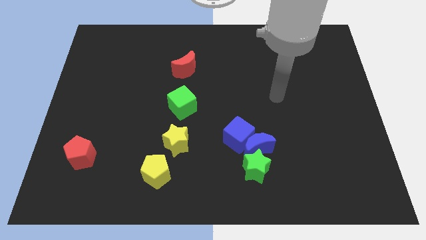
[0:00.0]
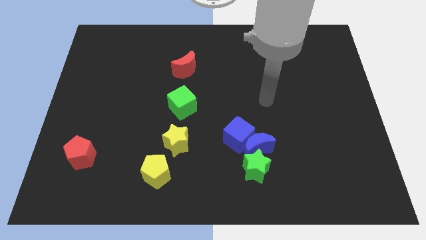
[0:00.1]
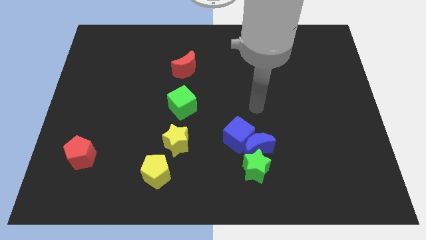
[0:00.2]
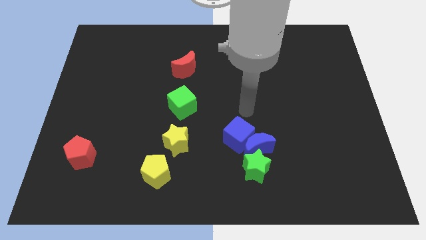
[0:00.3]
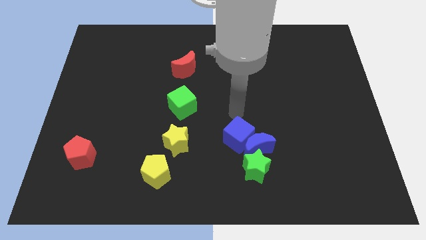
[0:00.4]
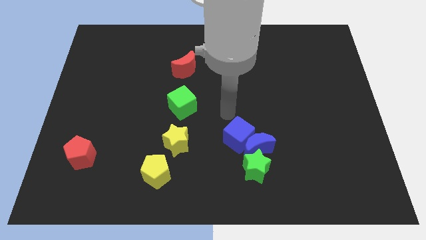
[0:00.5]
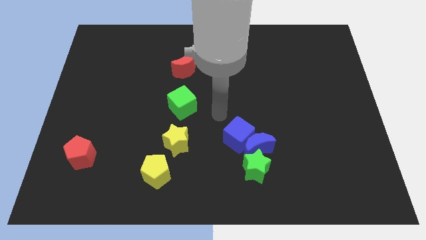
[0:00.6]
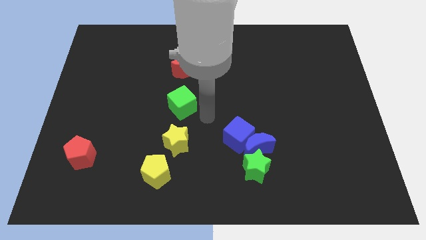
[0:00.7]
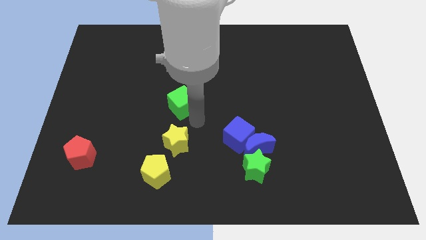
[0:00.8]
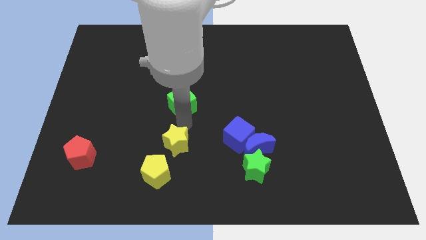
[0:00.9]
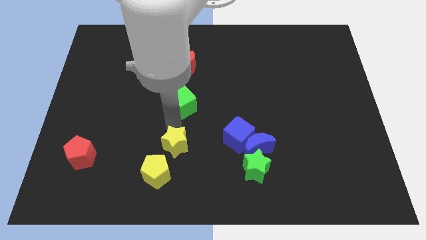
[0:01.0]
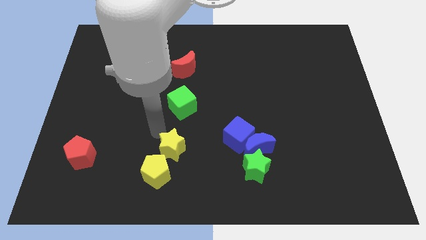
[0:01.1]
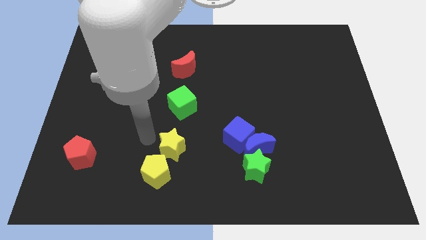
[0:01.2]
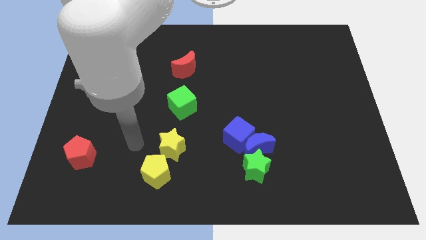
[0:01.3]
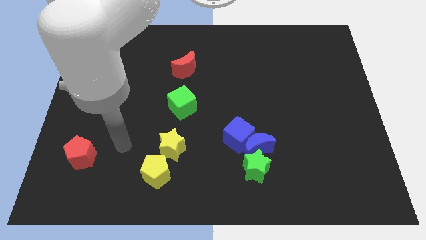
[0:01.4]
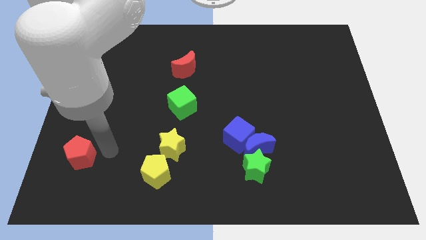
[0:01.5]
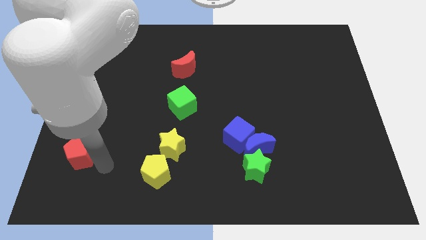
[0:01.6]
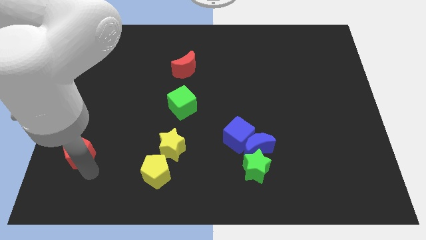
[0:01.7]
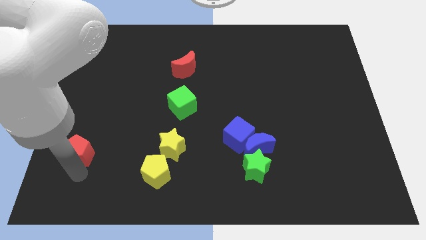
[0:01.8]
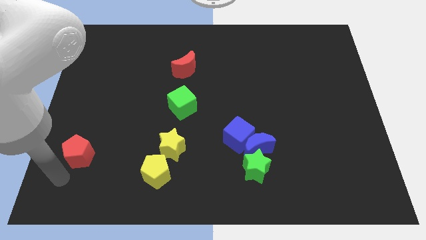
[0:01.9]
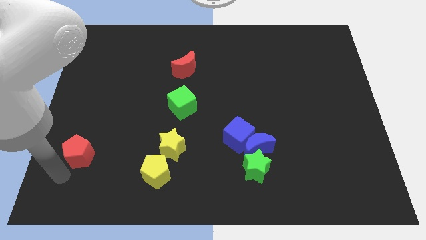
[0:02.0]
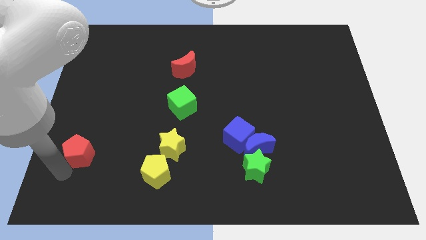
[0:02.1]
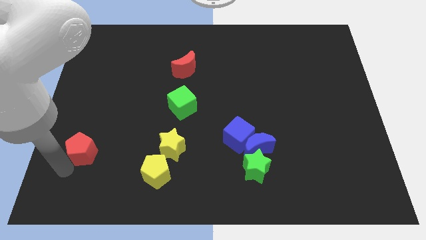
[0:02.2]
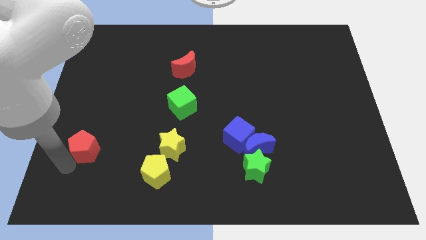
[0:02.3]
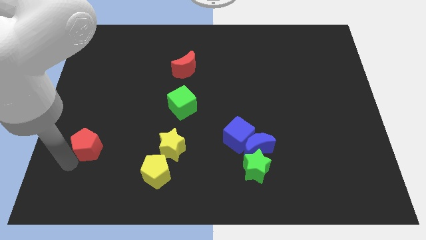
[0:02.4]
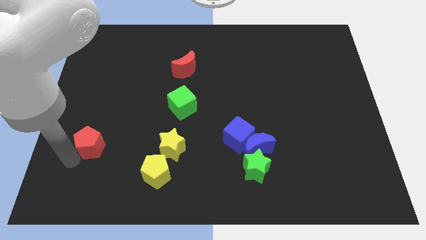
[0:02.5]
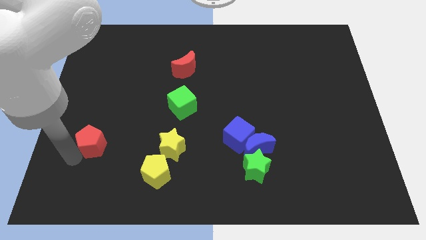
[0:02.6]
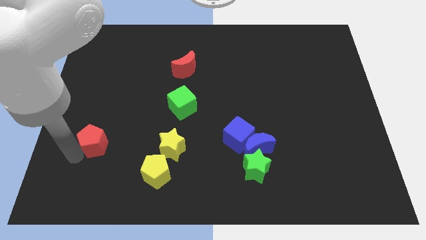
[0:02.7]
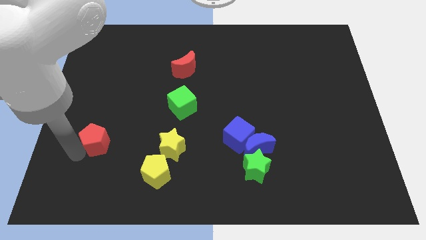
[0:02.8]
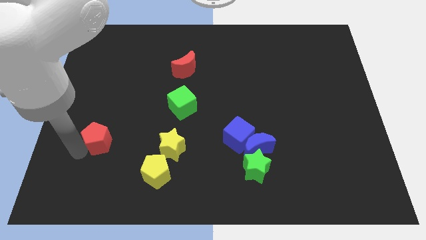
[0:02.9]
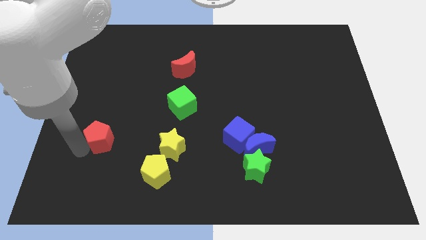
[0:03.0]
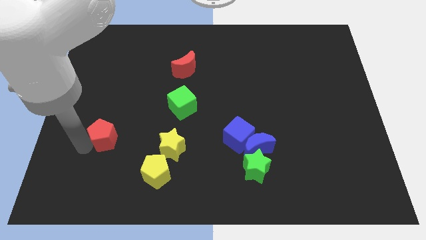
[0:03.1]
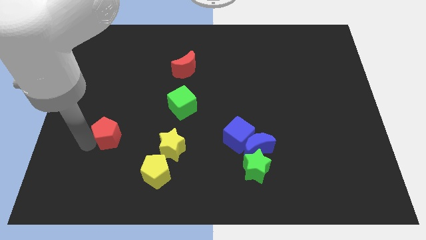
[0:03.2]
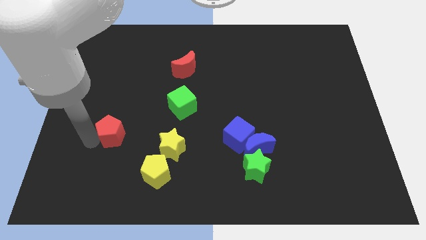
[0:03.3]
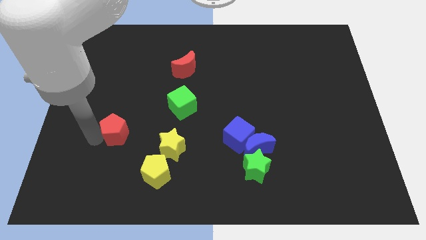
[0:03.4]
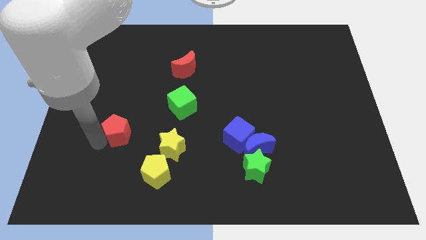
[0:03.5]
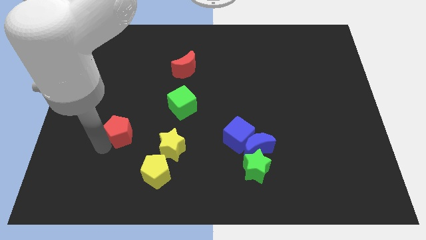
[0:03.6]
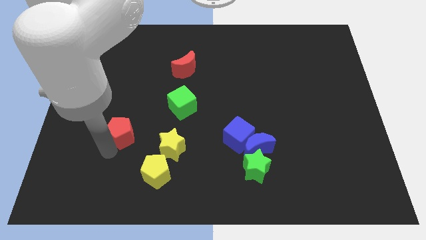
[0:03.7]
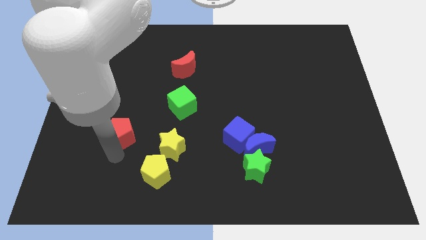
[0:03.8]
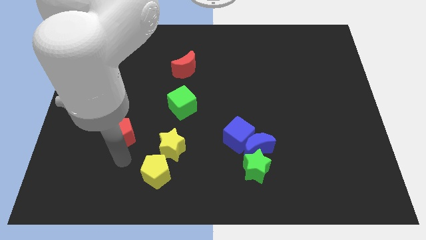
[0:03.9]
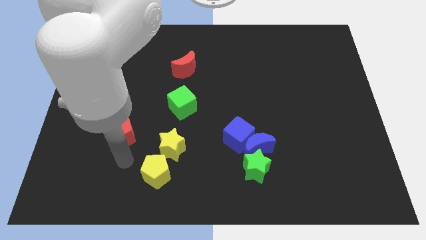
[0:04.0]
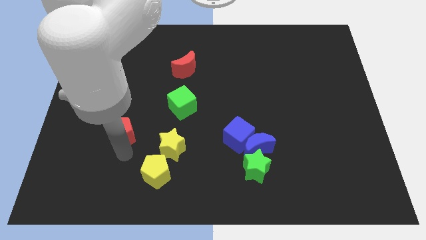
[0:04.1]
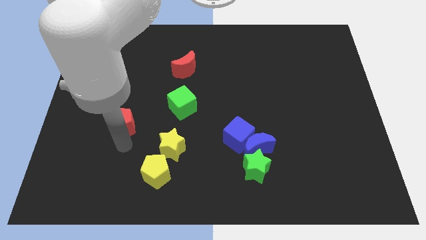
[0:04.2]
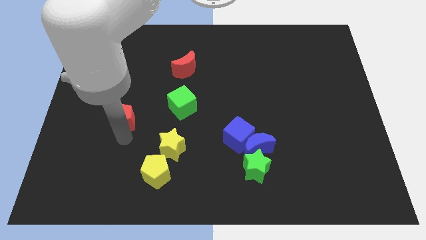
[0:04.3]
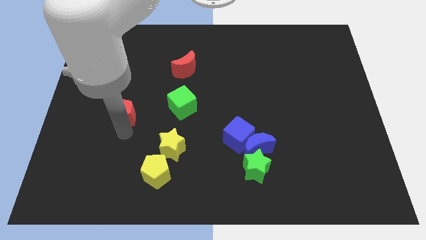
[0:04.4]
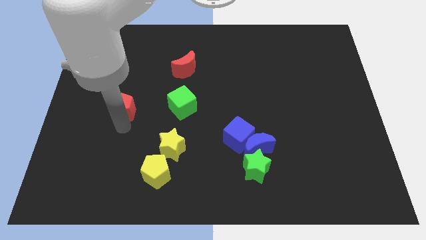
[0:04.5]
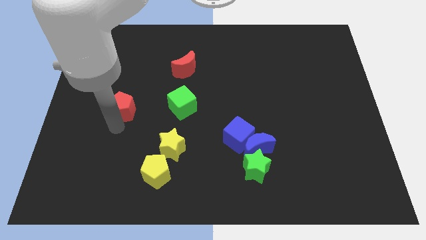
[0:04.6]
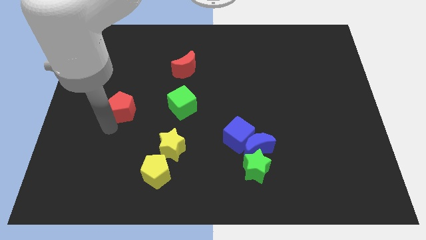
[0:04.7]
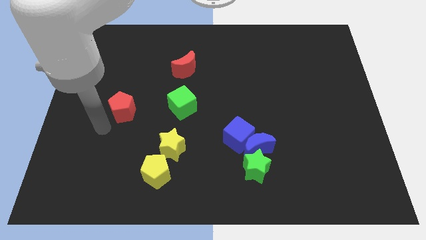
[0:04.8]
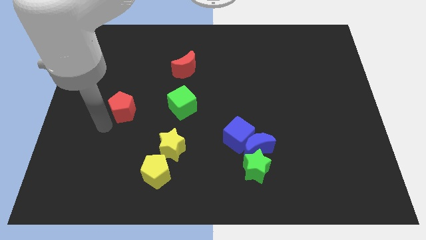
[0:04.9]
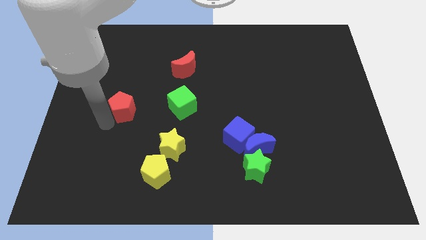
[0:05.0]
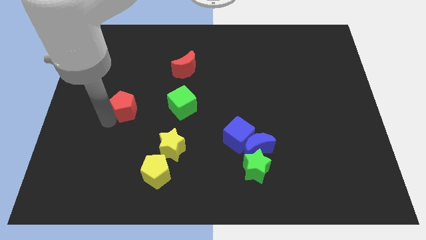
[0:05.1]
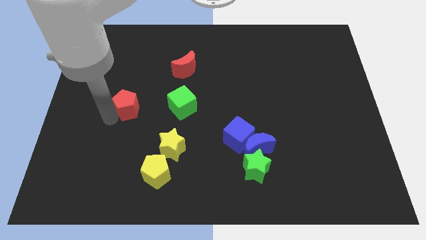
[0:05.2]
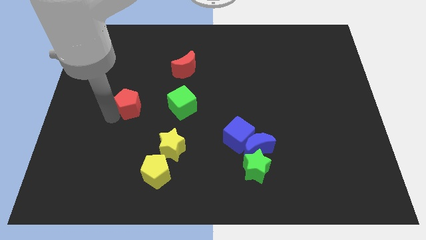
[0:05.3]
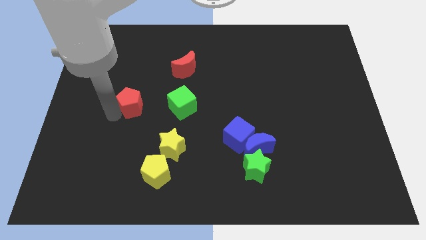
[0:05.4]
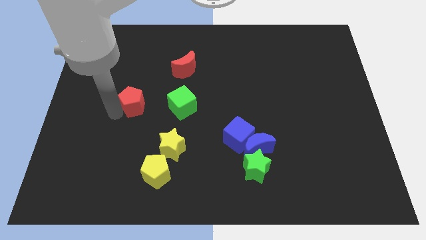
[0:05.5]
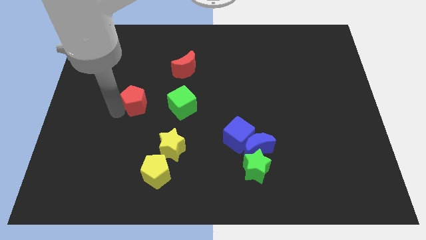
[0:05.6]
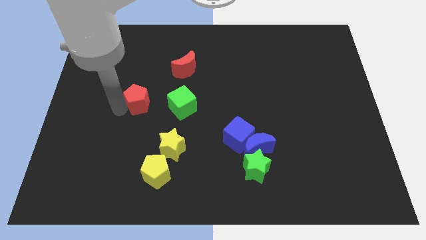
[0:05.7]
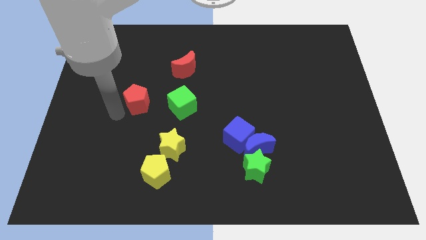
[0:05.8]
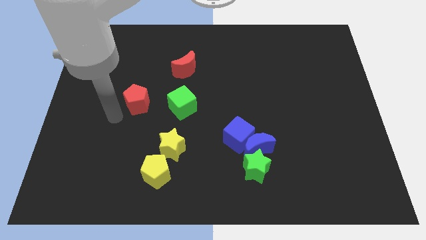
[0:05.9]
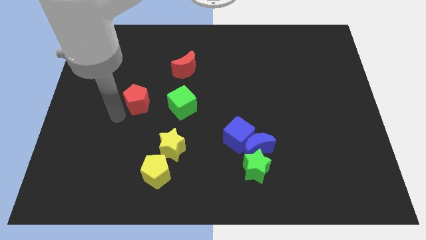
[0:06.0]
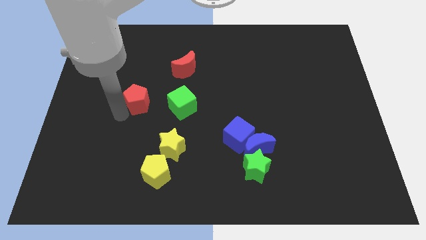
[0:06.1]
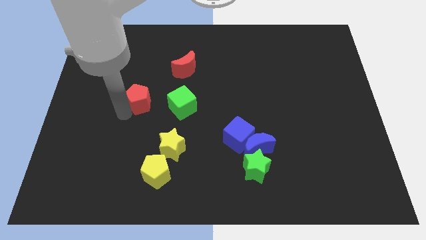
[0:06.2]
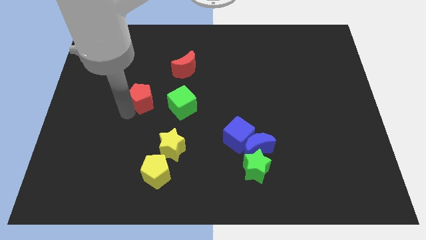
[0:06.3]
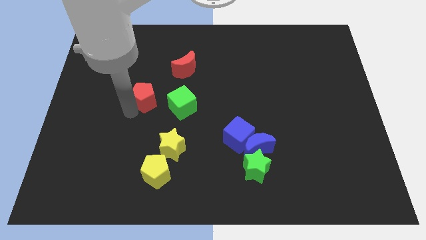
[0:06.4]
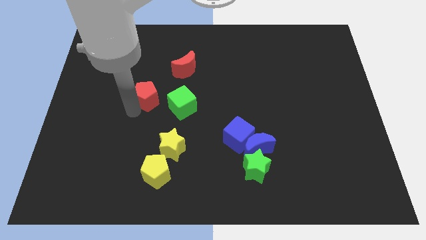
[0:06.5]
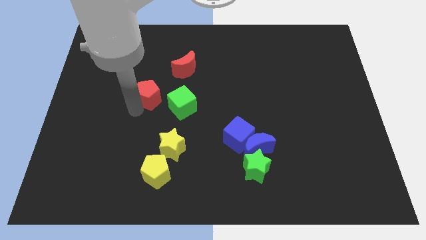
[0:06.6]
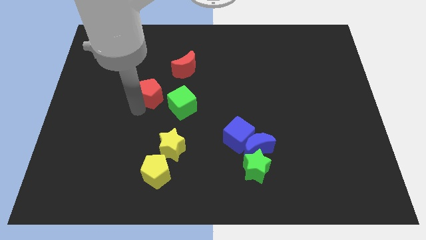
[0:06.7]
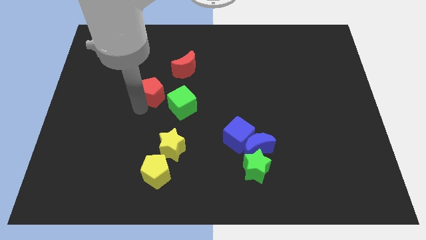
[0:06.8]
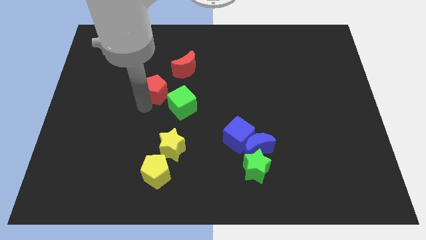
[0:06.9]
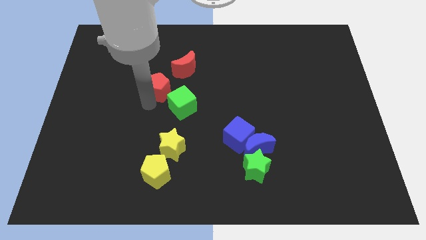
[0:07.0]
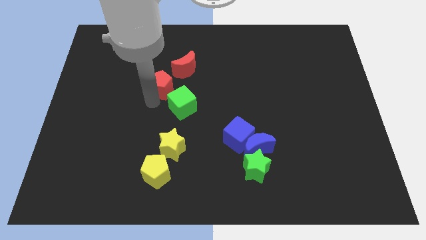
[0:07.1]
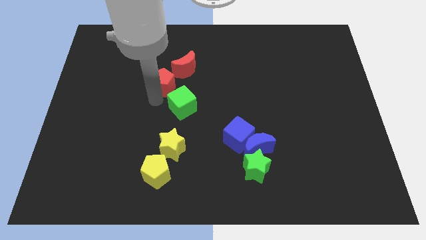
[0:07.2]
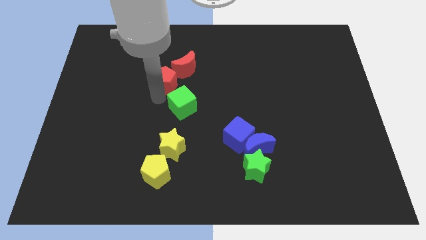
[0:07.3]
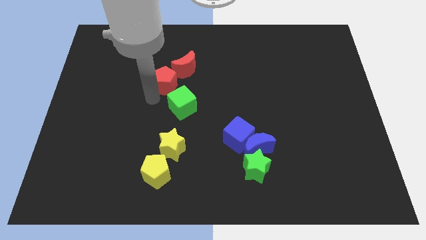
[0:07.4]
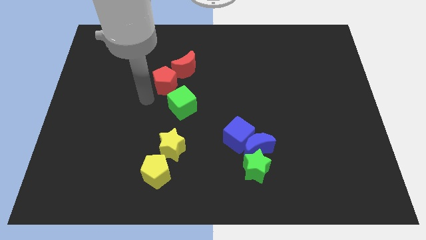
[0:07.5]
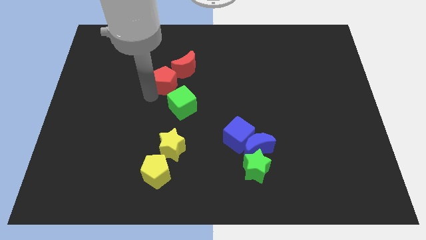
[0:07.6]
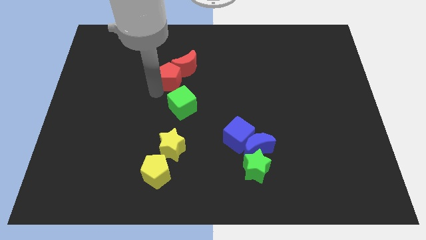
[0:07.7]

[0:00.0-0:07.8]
put the red pentagon close to the red moon
